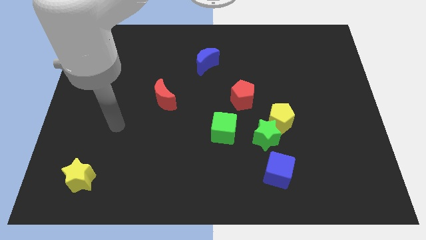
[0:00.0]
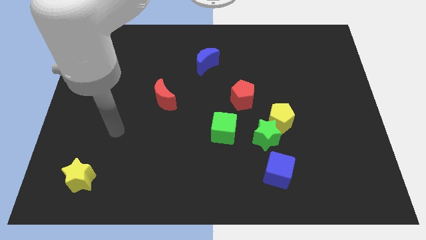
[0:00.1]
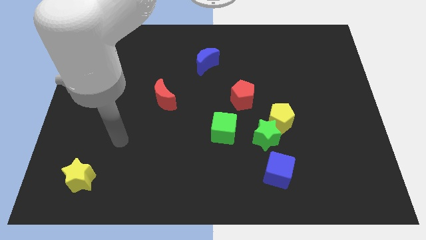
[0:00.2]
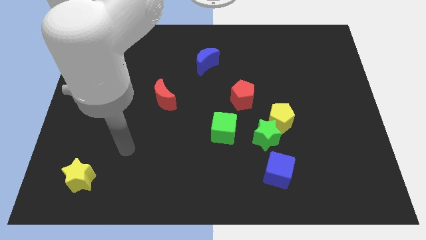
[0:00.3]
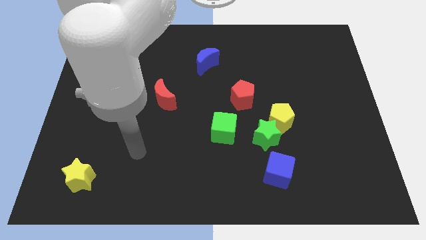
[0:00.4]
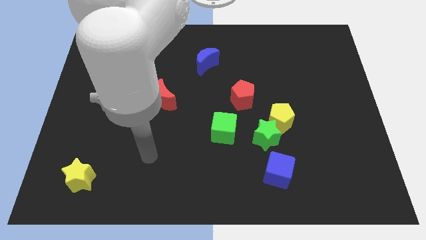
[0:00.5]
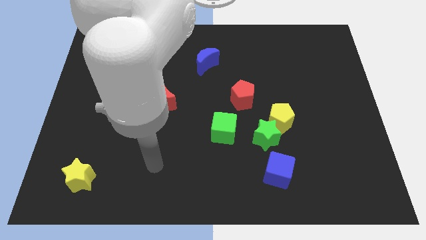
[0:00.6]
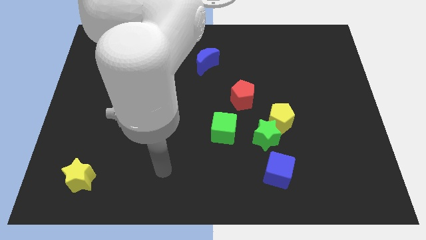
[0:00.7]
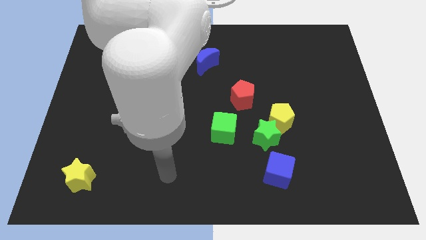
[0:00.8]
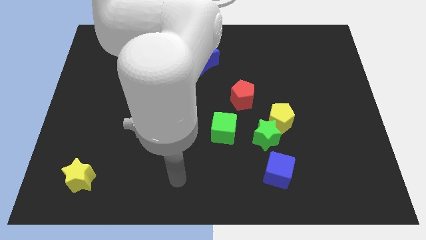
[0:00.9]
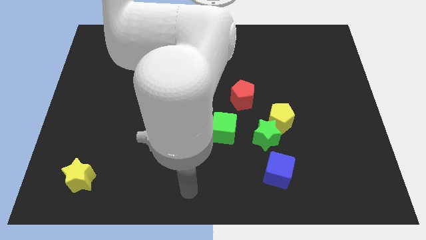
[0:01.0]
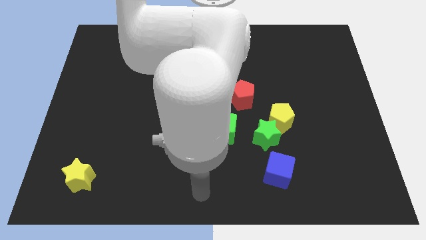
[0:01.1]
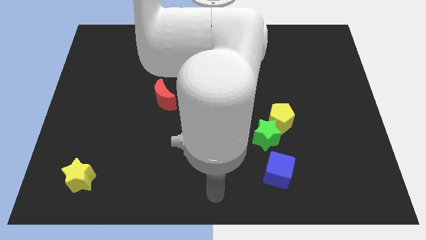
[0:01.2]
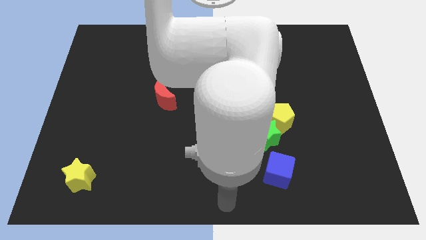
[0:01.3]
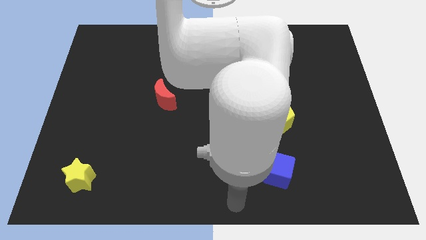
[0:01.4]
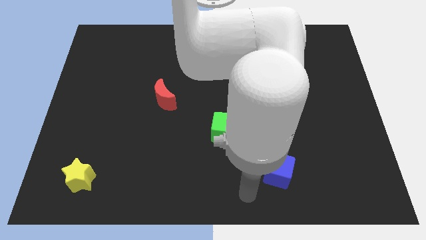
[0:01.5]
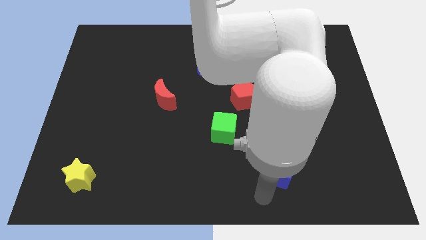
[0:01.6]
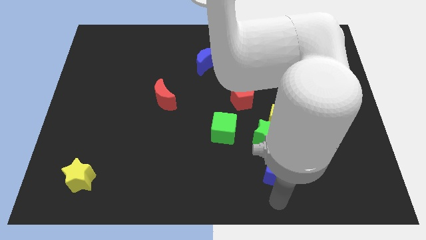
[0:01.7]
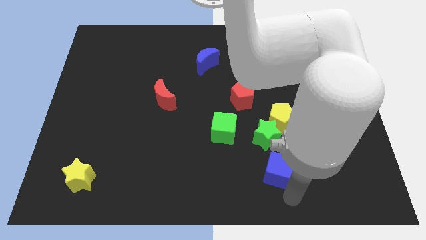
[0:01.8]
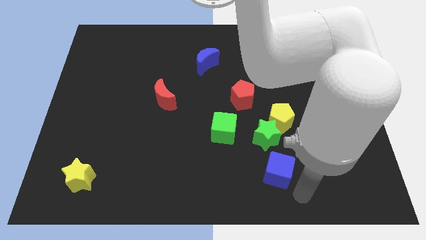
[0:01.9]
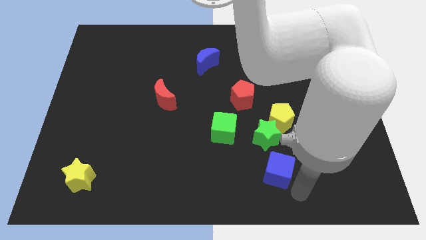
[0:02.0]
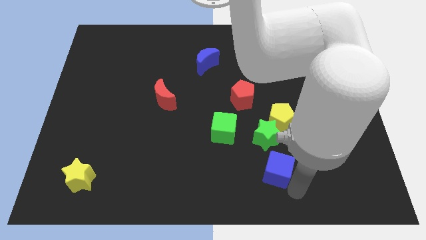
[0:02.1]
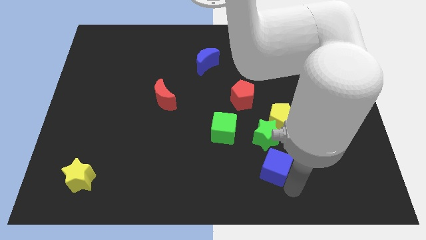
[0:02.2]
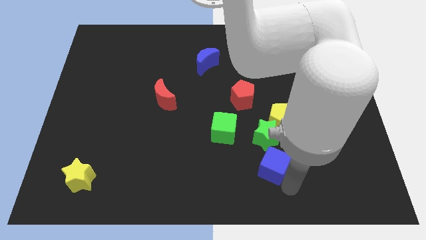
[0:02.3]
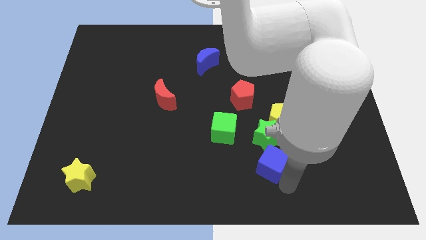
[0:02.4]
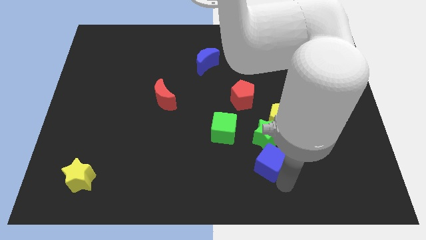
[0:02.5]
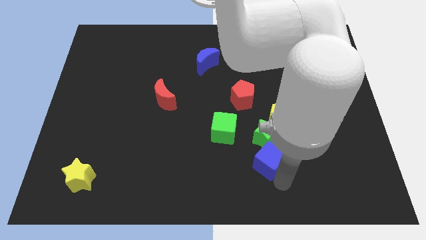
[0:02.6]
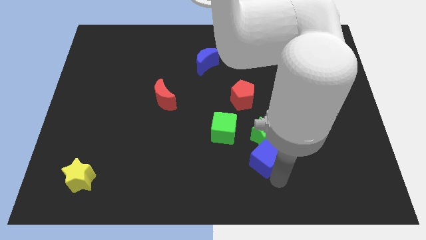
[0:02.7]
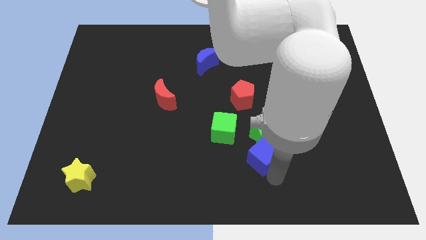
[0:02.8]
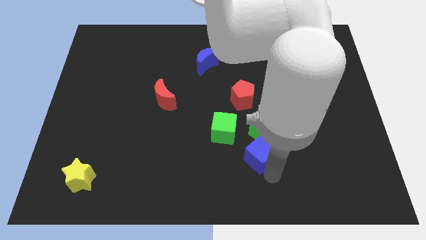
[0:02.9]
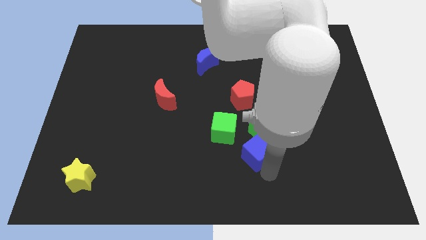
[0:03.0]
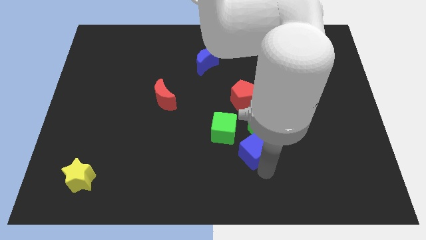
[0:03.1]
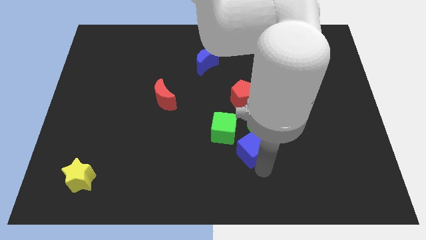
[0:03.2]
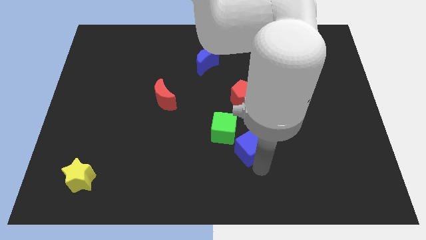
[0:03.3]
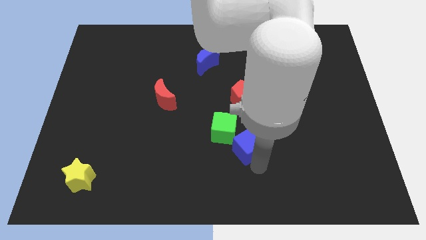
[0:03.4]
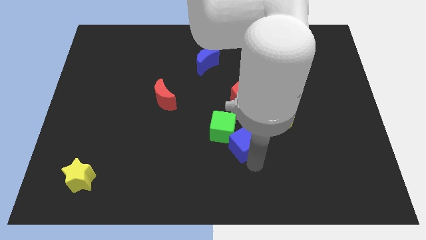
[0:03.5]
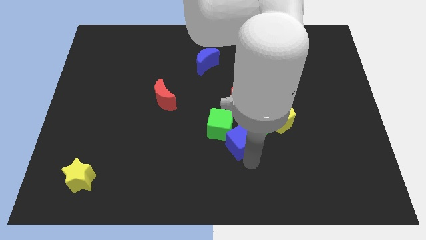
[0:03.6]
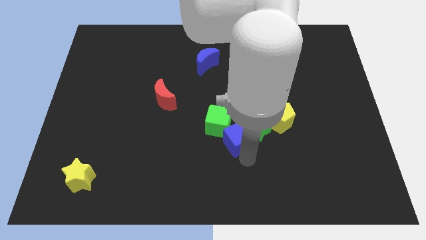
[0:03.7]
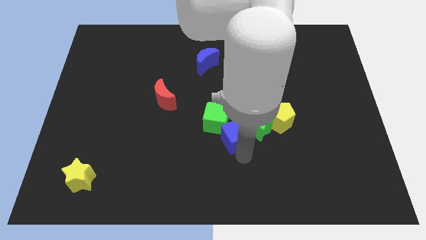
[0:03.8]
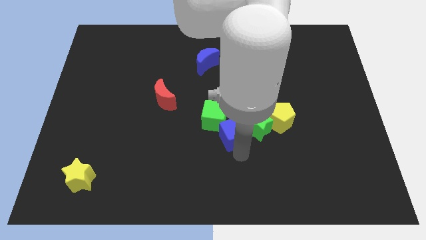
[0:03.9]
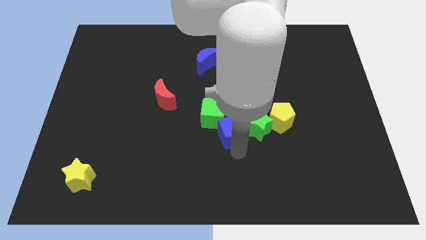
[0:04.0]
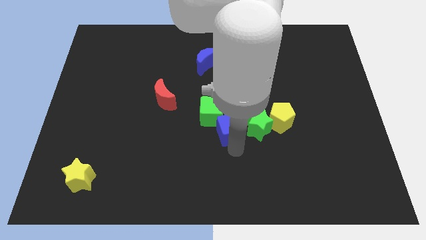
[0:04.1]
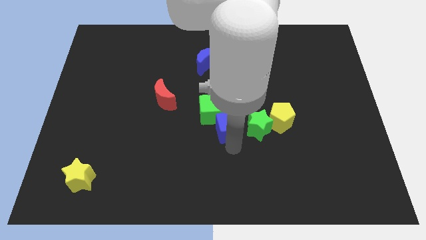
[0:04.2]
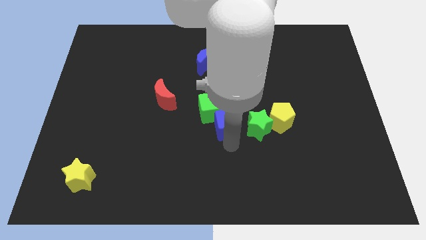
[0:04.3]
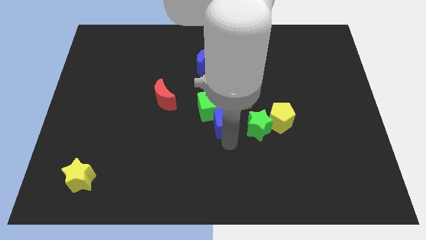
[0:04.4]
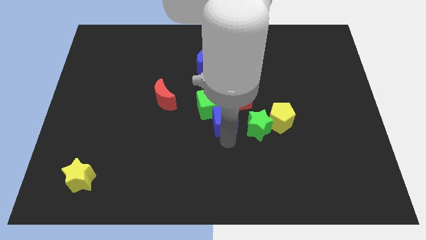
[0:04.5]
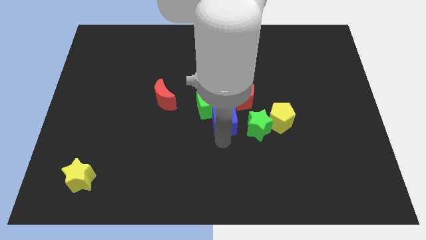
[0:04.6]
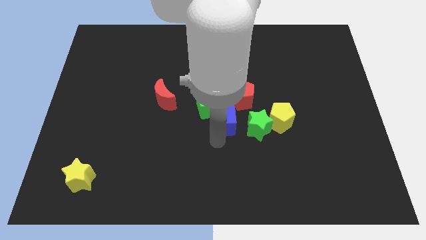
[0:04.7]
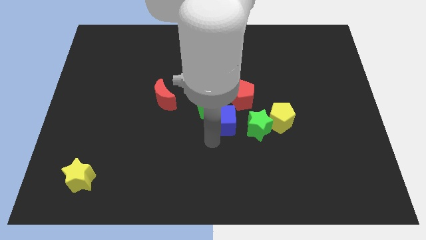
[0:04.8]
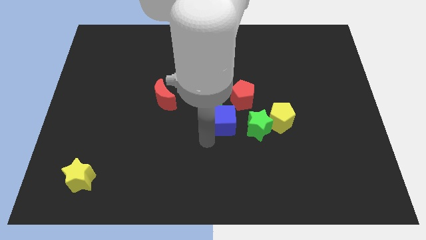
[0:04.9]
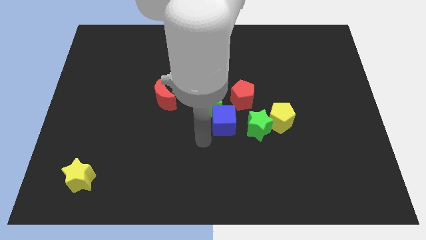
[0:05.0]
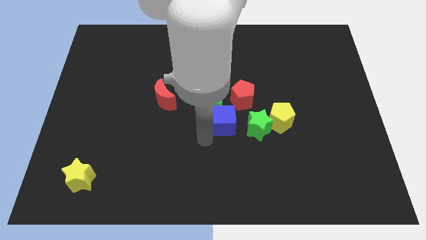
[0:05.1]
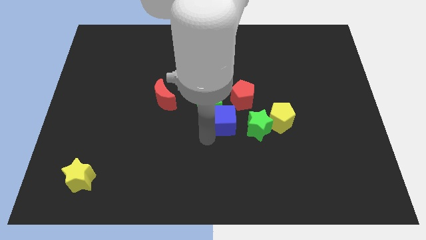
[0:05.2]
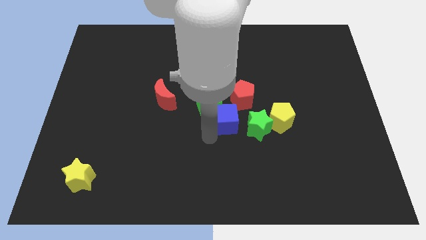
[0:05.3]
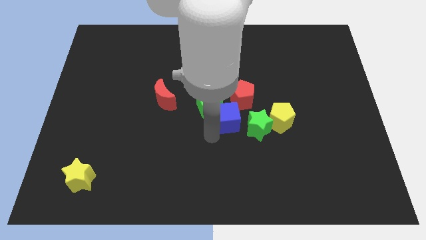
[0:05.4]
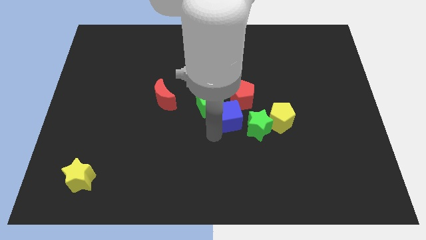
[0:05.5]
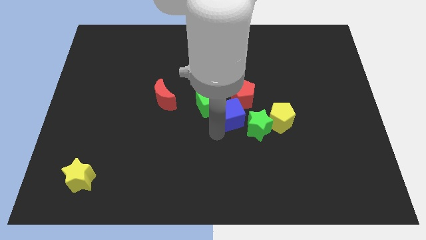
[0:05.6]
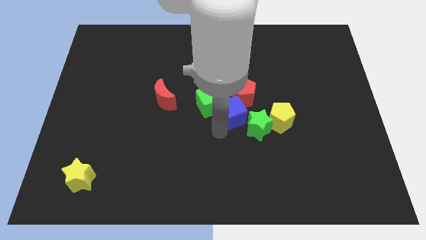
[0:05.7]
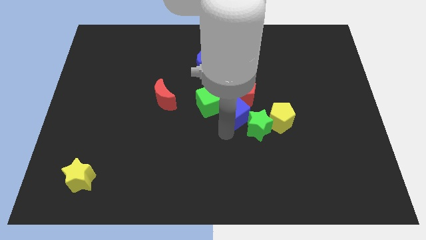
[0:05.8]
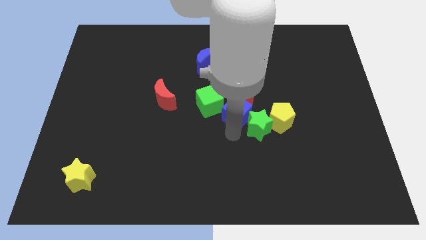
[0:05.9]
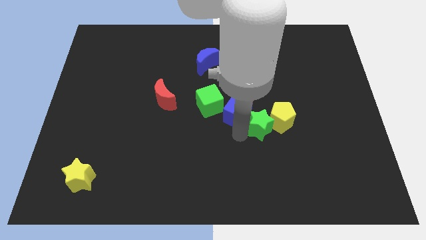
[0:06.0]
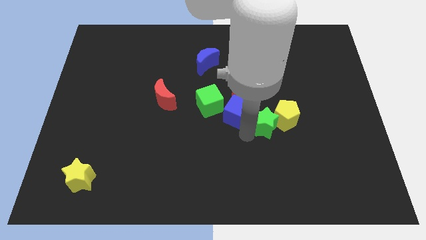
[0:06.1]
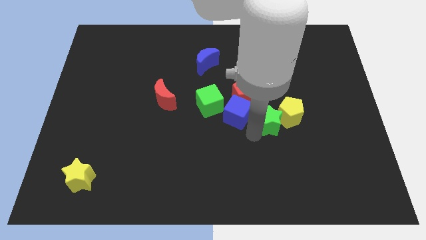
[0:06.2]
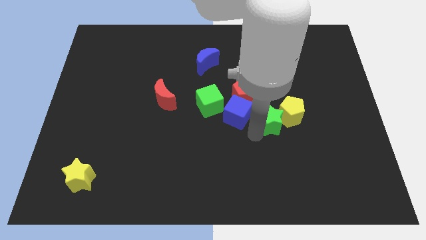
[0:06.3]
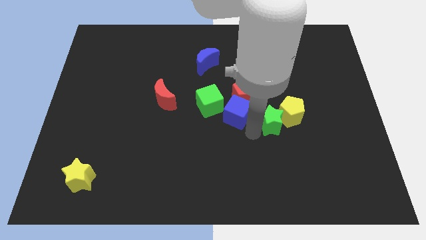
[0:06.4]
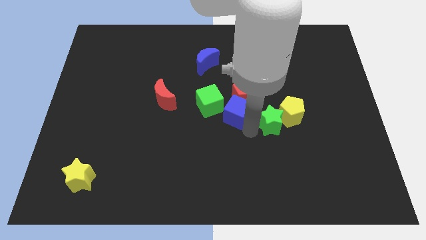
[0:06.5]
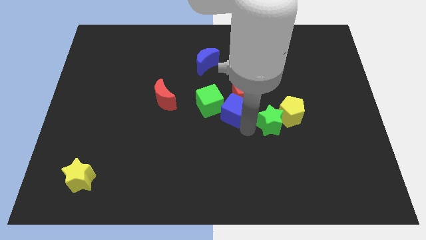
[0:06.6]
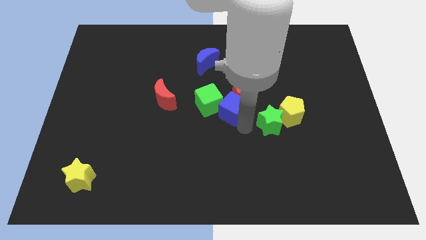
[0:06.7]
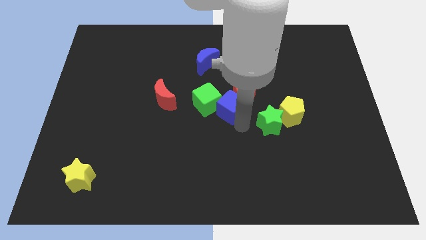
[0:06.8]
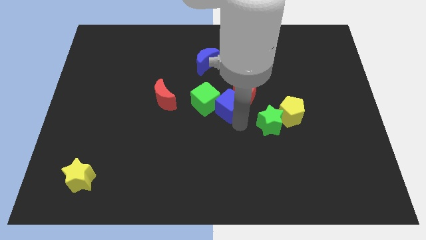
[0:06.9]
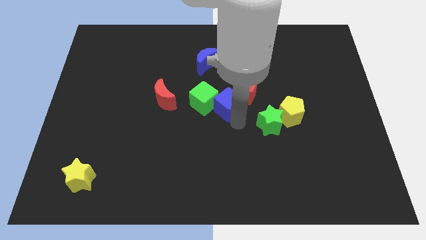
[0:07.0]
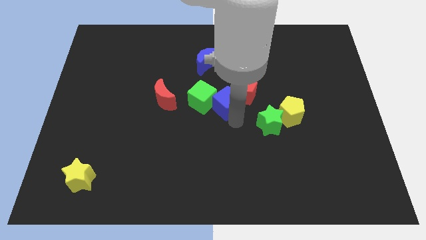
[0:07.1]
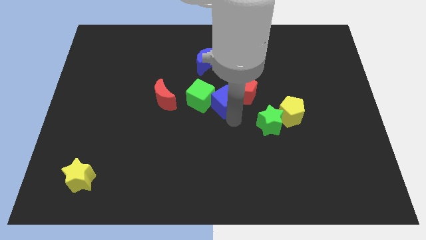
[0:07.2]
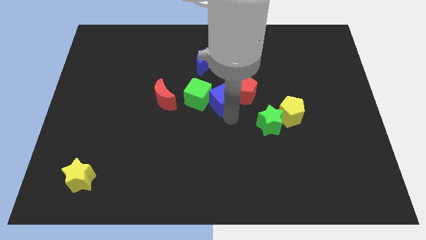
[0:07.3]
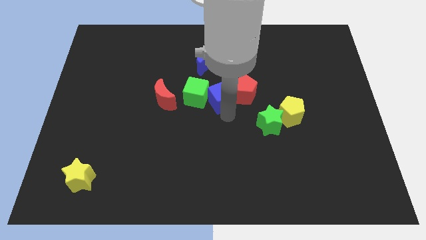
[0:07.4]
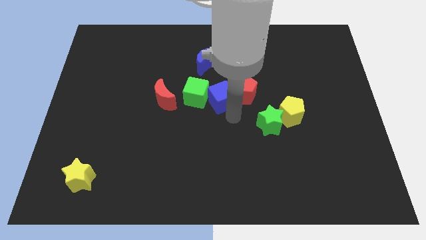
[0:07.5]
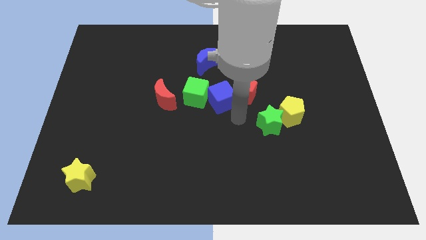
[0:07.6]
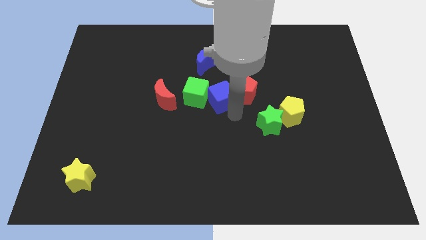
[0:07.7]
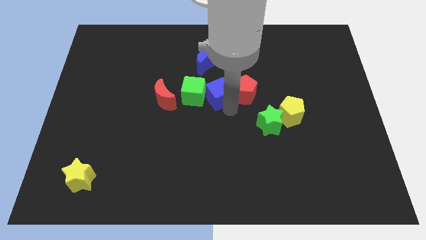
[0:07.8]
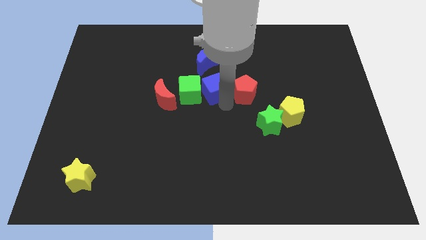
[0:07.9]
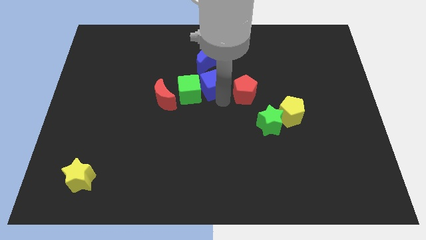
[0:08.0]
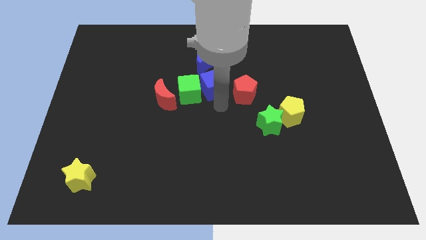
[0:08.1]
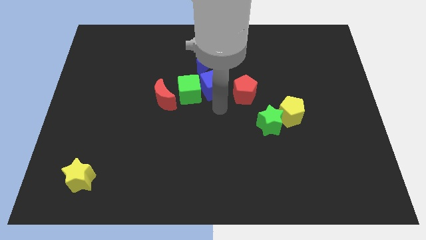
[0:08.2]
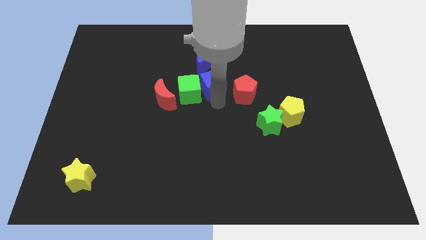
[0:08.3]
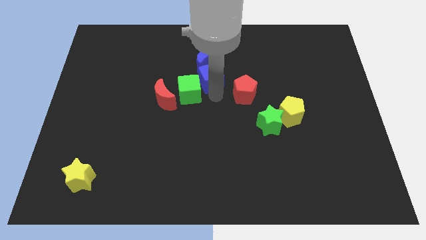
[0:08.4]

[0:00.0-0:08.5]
move the blue cube towards the blue moon

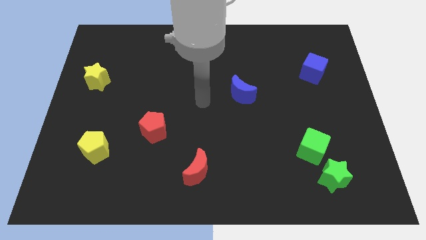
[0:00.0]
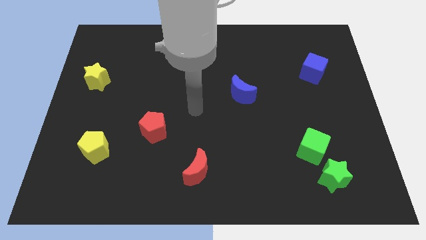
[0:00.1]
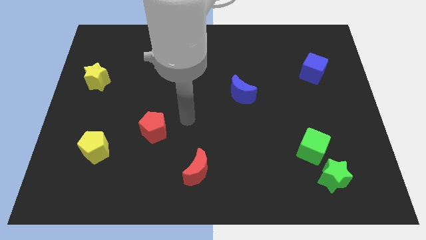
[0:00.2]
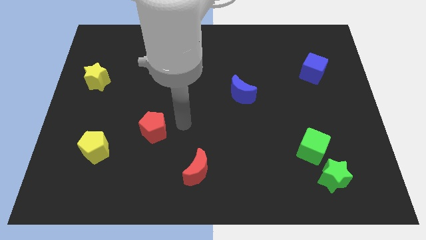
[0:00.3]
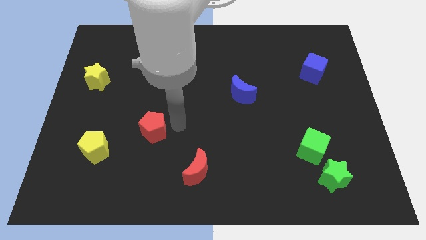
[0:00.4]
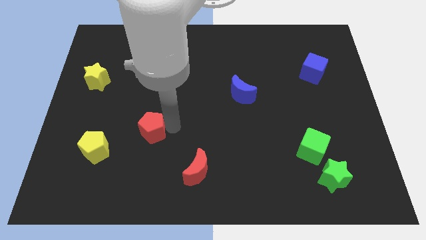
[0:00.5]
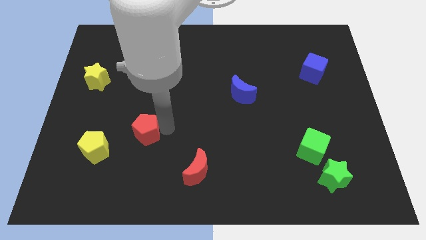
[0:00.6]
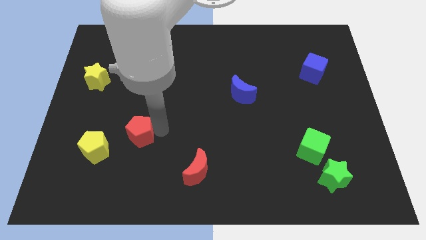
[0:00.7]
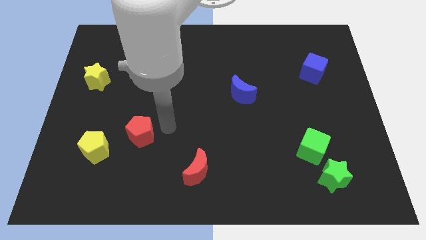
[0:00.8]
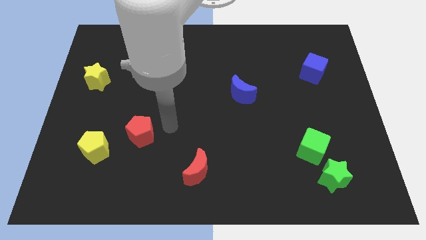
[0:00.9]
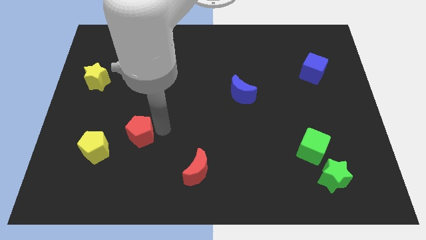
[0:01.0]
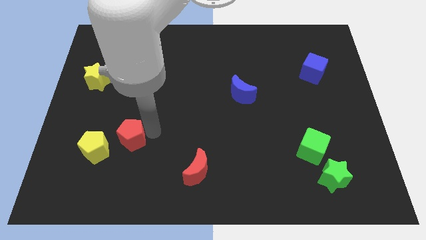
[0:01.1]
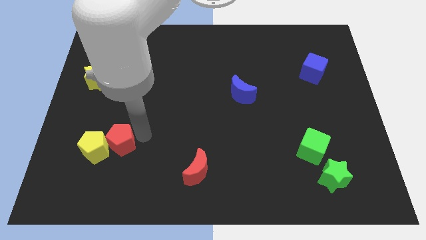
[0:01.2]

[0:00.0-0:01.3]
push the red pentagon close to the yellow pentagon
